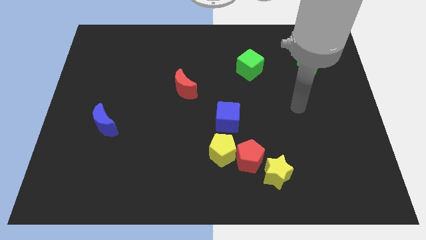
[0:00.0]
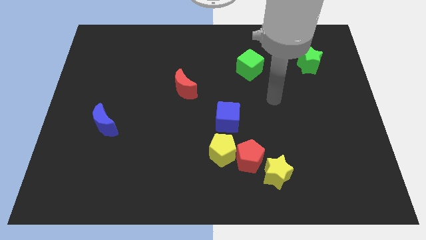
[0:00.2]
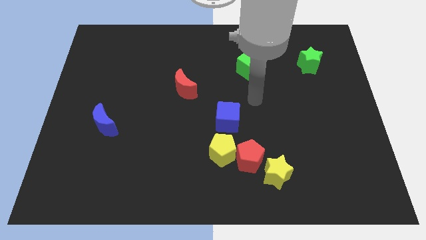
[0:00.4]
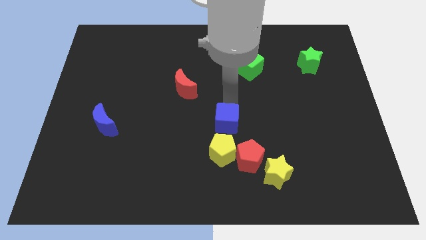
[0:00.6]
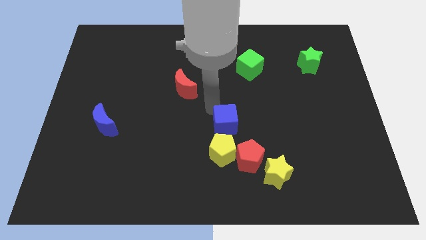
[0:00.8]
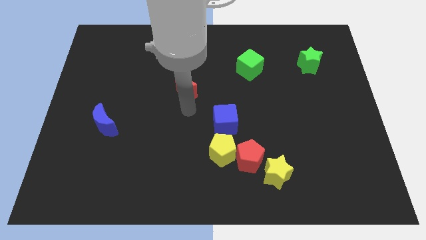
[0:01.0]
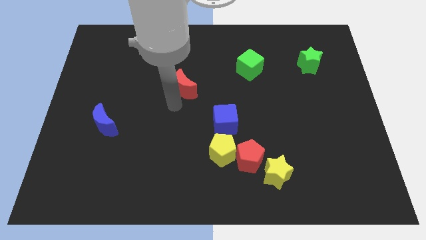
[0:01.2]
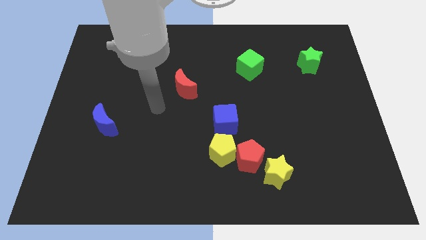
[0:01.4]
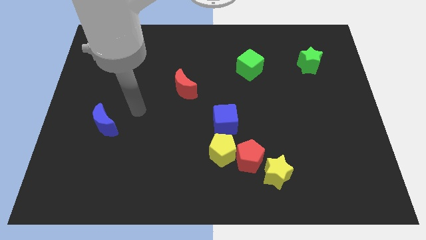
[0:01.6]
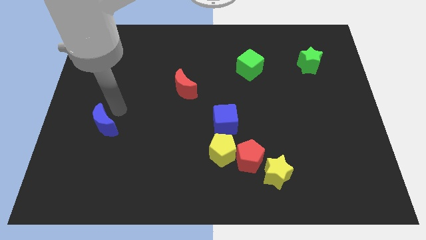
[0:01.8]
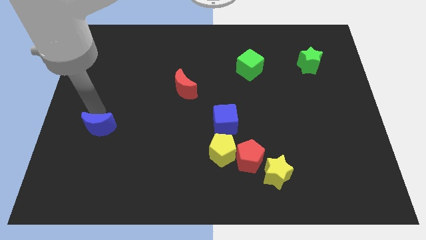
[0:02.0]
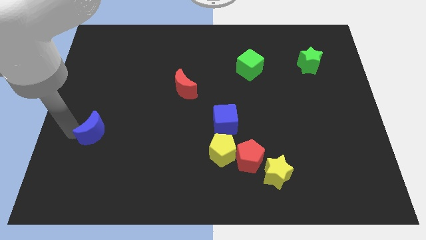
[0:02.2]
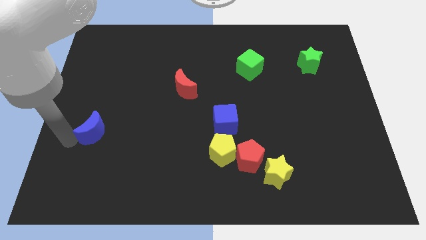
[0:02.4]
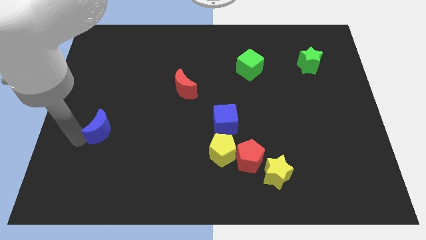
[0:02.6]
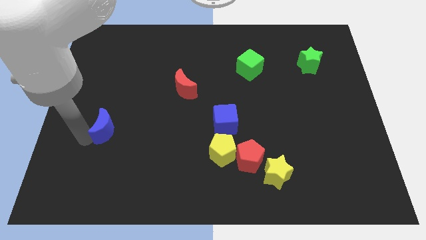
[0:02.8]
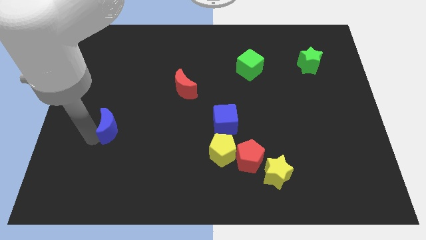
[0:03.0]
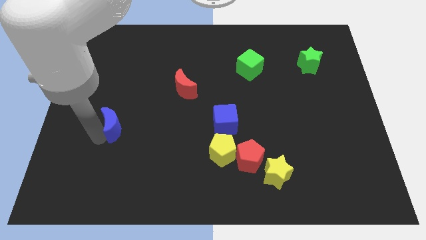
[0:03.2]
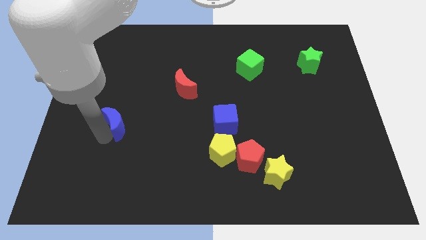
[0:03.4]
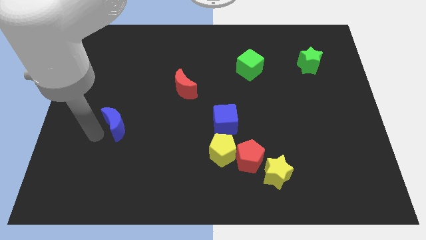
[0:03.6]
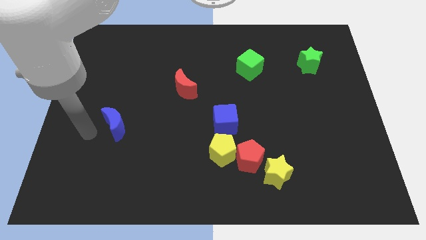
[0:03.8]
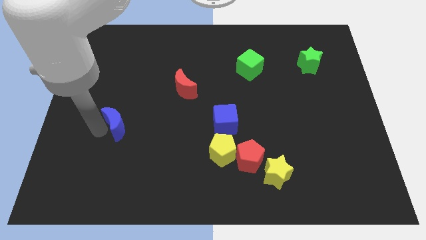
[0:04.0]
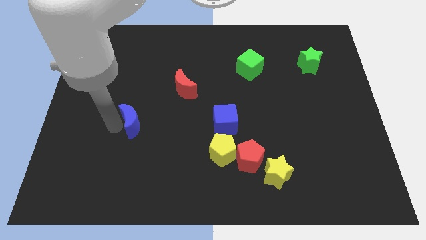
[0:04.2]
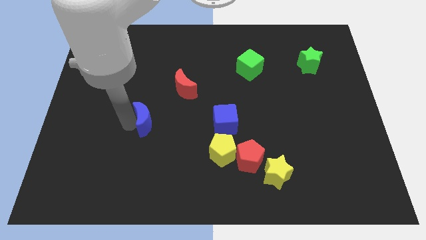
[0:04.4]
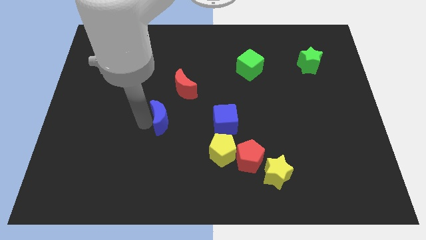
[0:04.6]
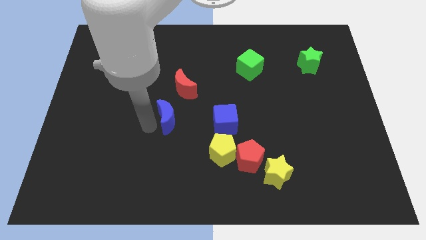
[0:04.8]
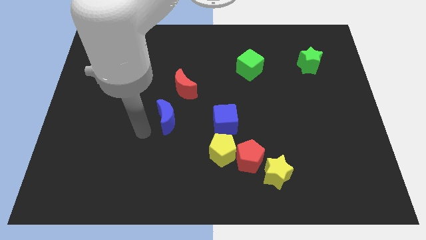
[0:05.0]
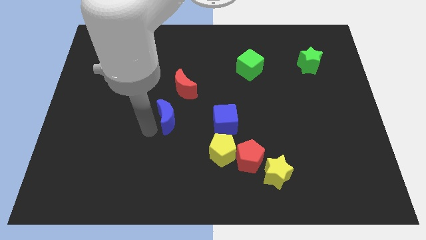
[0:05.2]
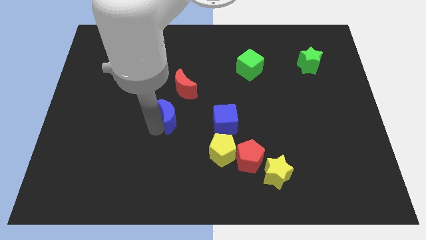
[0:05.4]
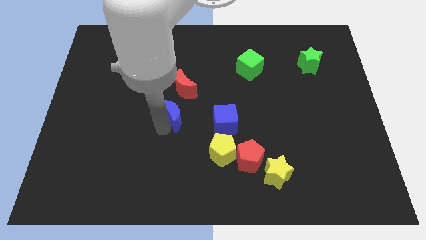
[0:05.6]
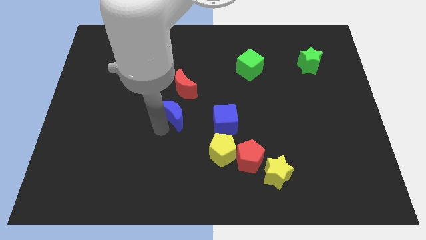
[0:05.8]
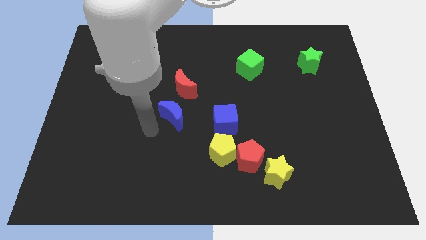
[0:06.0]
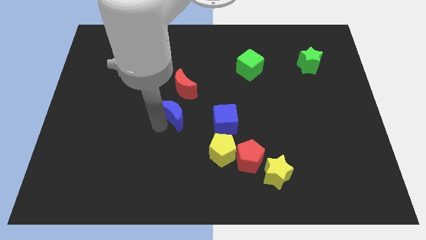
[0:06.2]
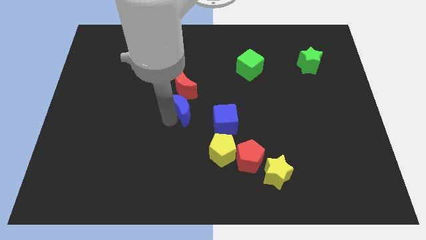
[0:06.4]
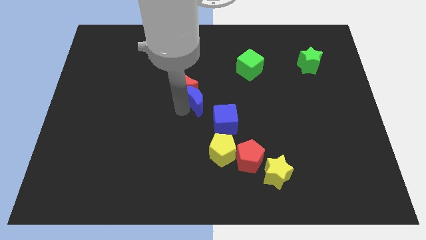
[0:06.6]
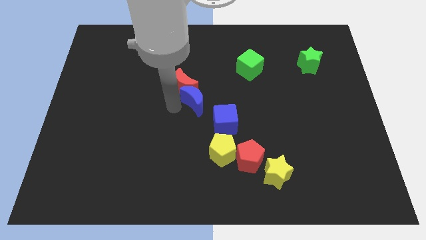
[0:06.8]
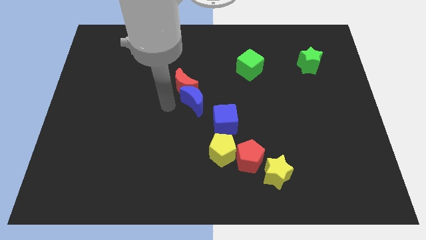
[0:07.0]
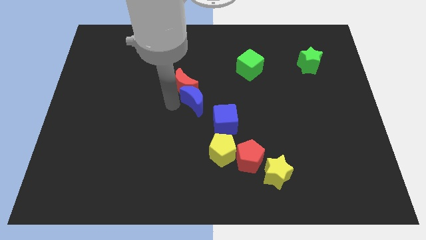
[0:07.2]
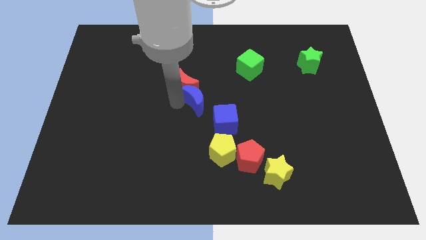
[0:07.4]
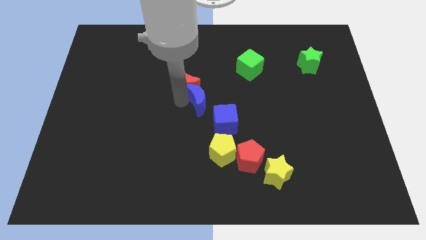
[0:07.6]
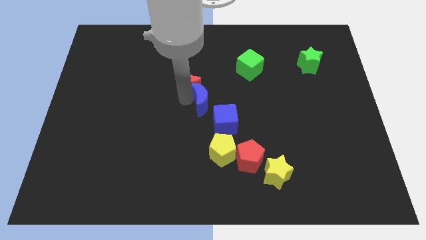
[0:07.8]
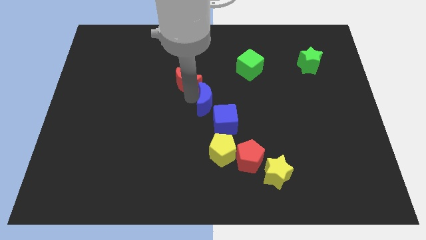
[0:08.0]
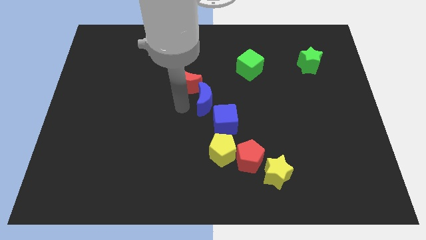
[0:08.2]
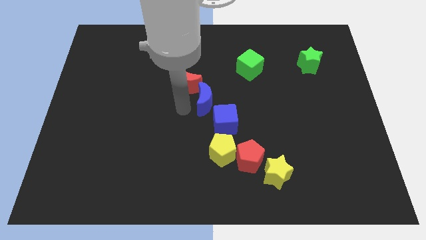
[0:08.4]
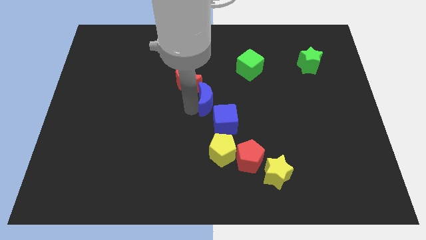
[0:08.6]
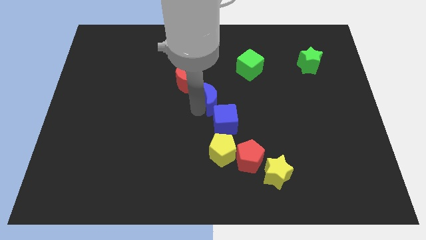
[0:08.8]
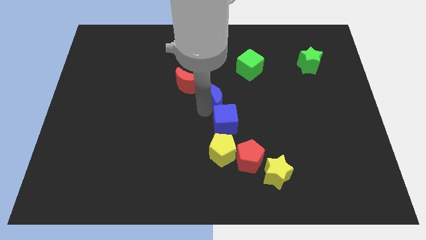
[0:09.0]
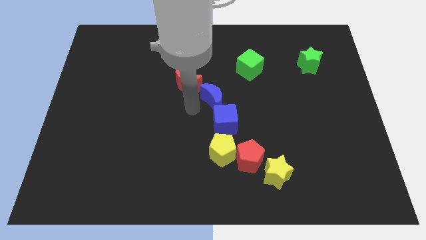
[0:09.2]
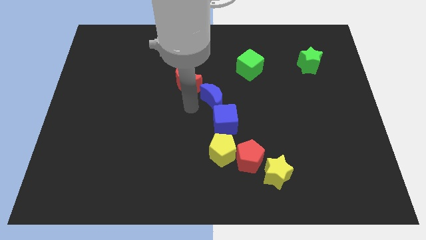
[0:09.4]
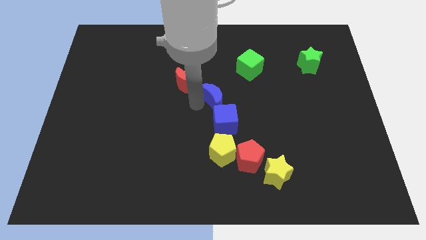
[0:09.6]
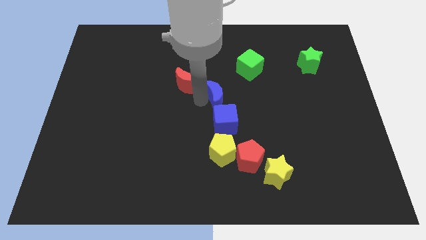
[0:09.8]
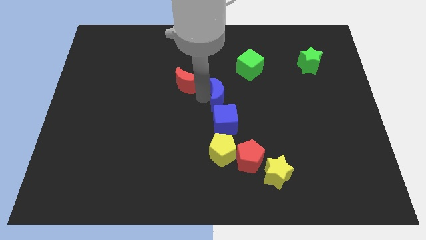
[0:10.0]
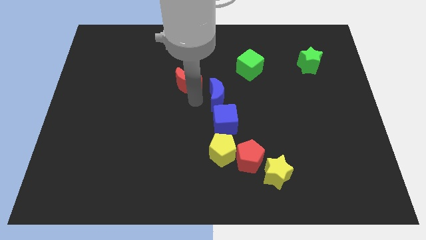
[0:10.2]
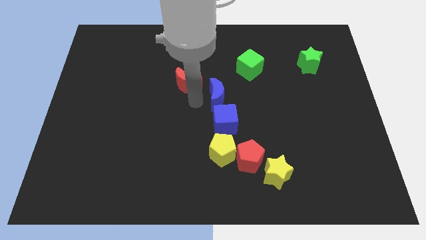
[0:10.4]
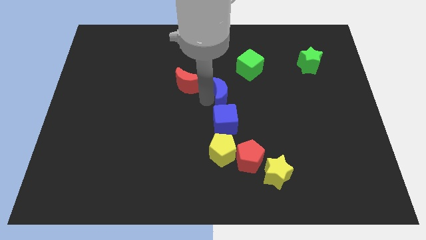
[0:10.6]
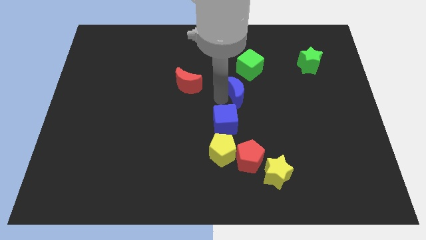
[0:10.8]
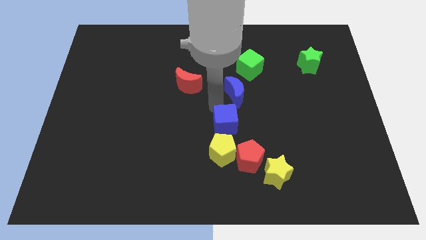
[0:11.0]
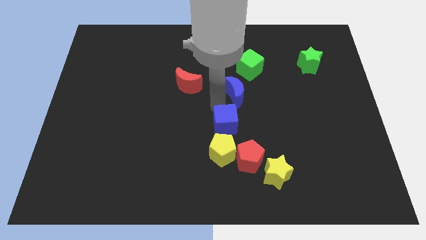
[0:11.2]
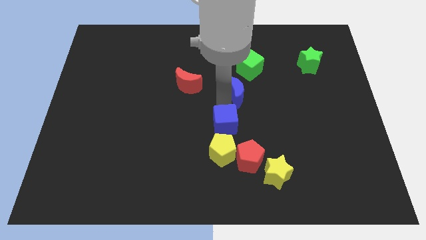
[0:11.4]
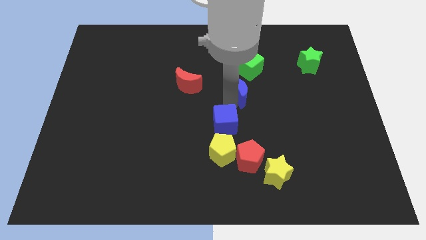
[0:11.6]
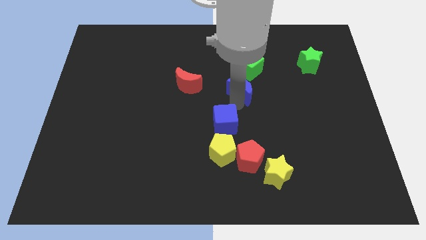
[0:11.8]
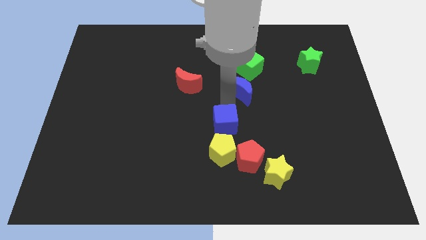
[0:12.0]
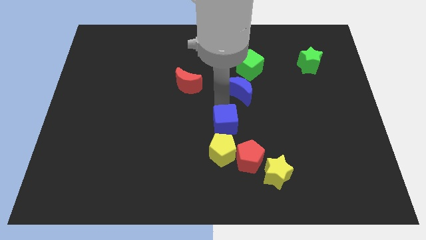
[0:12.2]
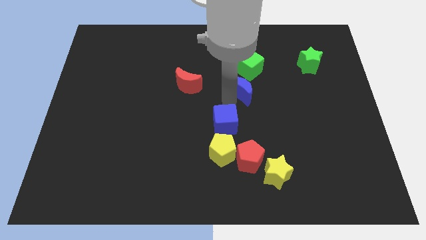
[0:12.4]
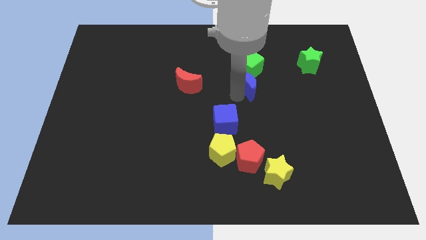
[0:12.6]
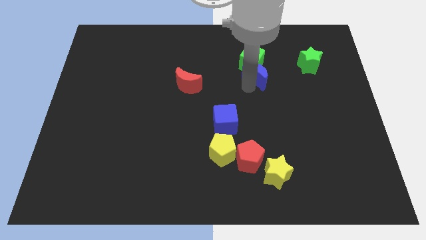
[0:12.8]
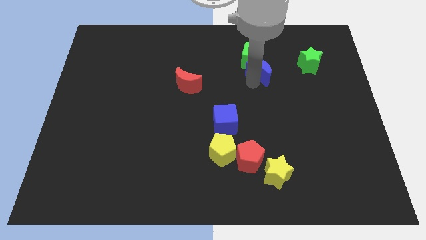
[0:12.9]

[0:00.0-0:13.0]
move the blue moon left of the green star
